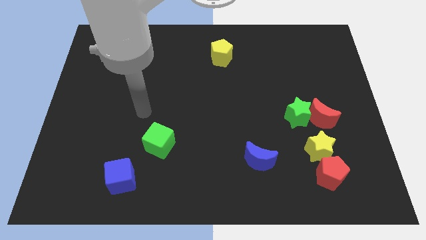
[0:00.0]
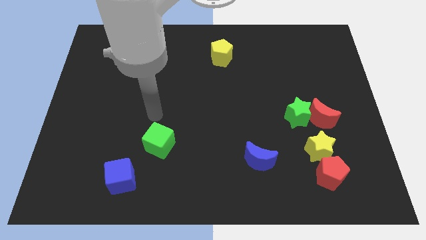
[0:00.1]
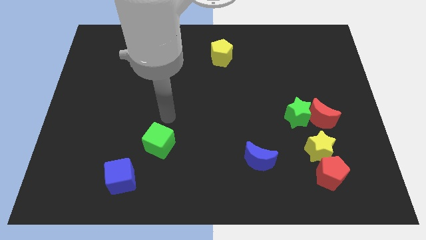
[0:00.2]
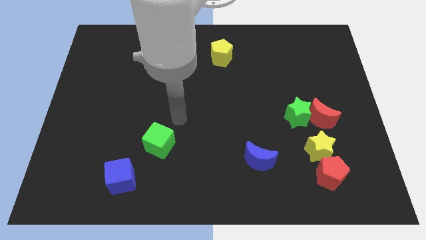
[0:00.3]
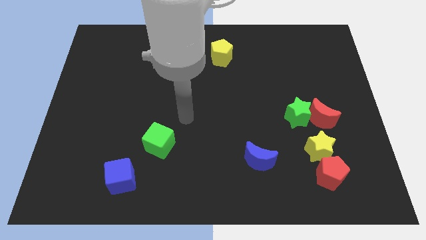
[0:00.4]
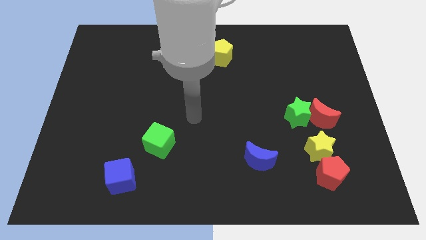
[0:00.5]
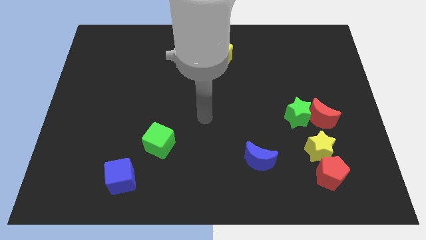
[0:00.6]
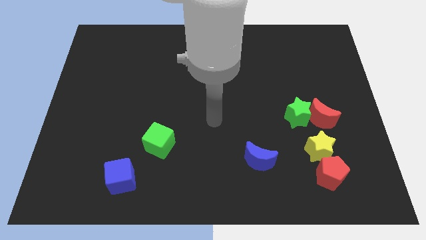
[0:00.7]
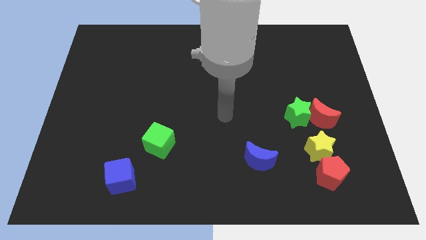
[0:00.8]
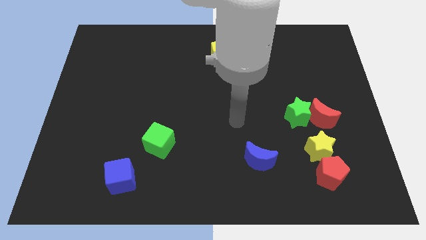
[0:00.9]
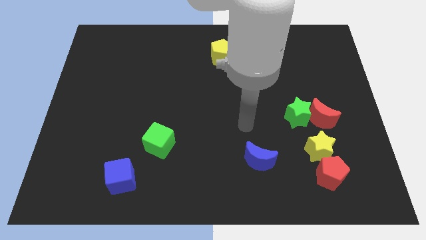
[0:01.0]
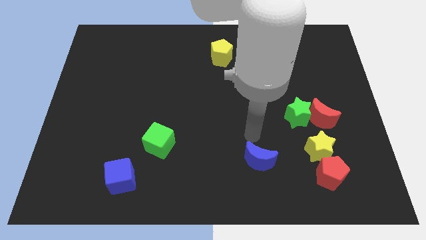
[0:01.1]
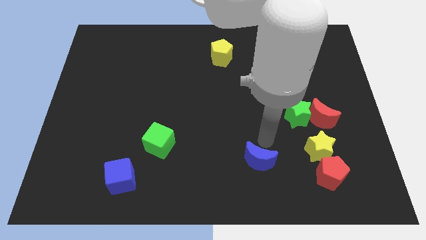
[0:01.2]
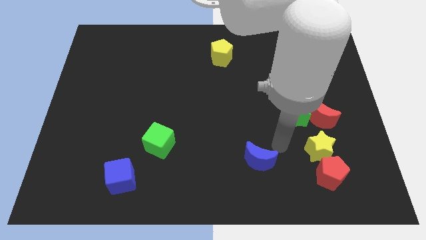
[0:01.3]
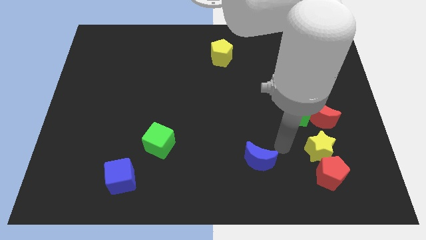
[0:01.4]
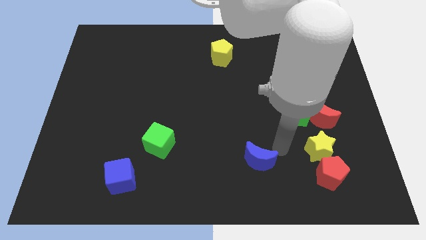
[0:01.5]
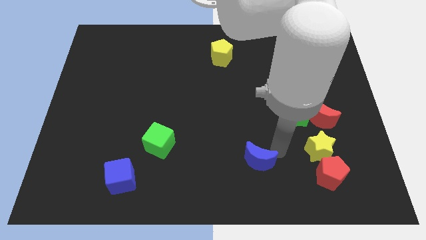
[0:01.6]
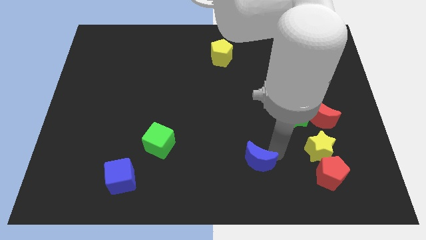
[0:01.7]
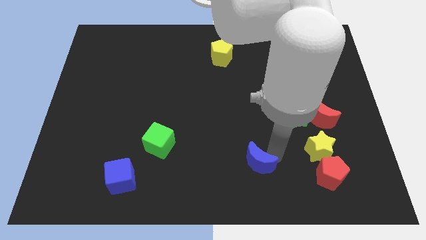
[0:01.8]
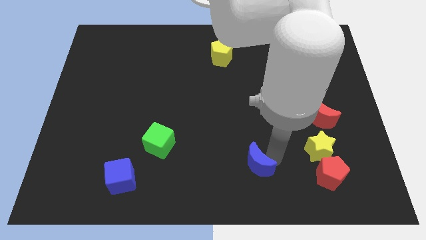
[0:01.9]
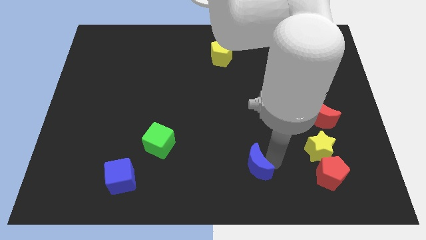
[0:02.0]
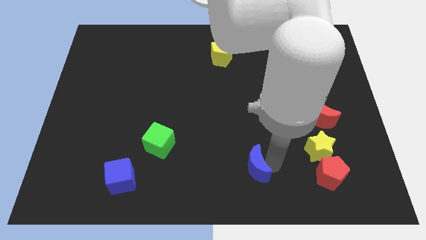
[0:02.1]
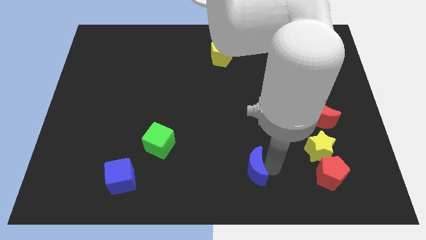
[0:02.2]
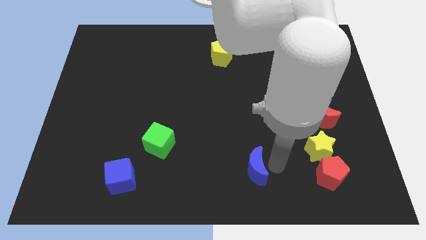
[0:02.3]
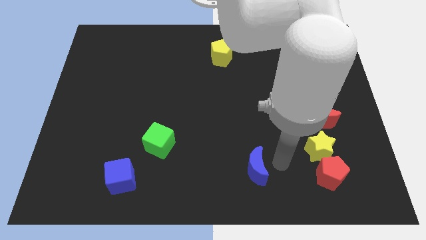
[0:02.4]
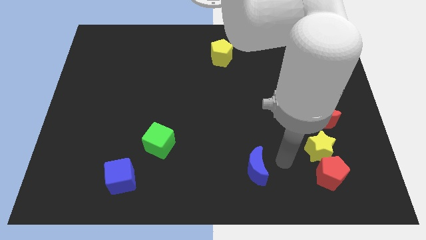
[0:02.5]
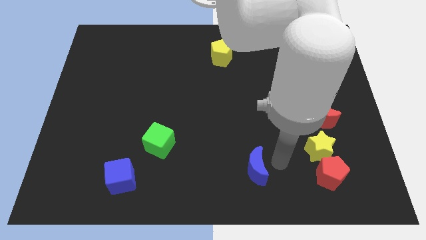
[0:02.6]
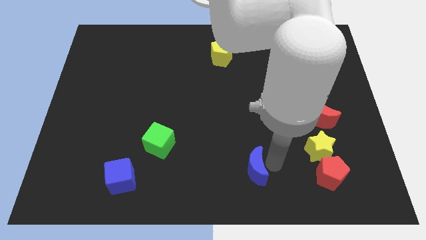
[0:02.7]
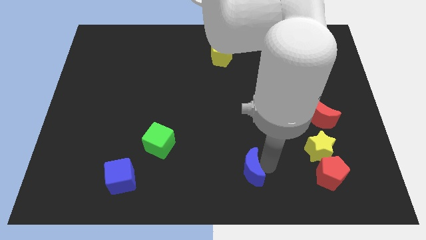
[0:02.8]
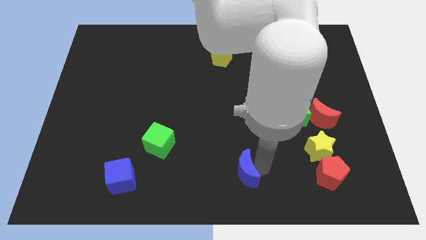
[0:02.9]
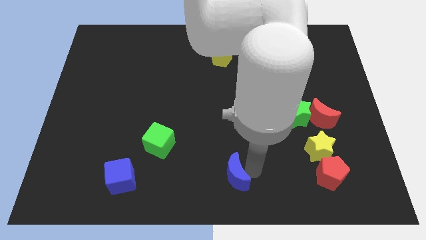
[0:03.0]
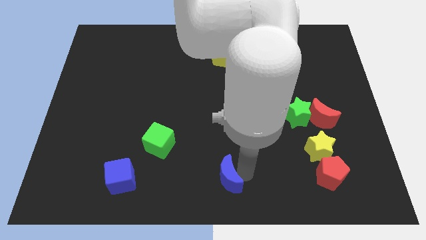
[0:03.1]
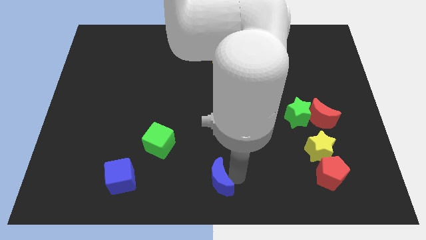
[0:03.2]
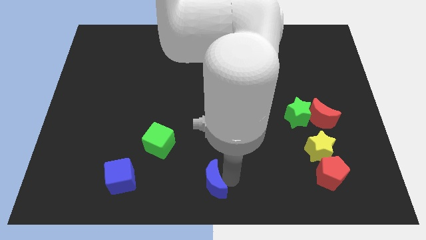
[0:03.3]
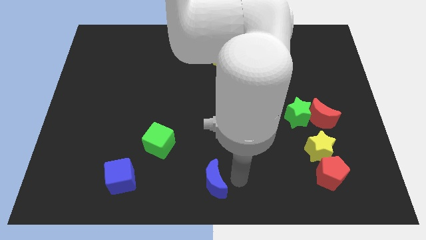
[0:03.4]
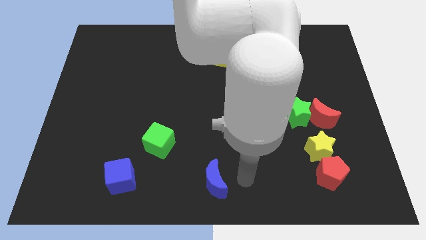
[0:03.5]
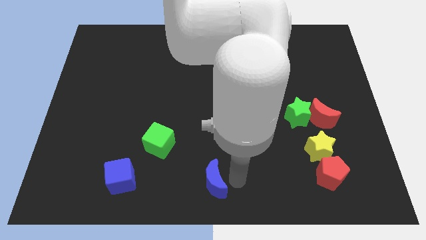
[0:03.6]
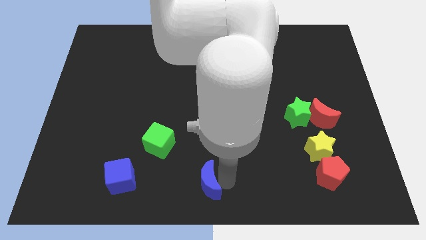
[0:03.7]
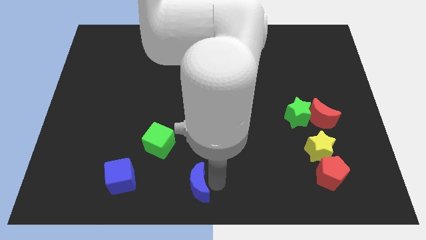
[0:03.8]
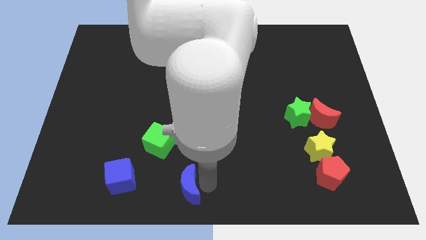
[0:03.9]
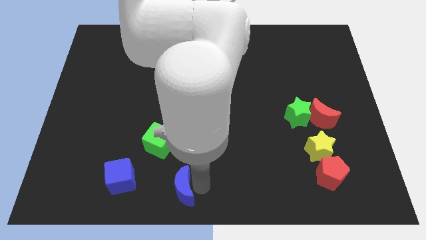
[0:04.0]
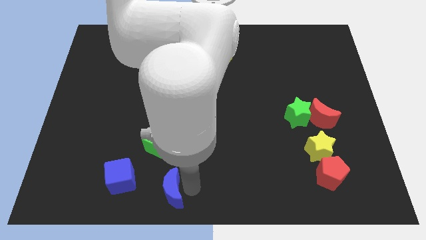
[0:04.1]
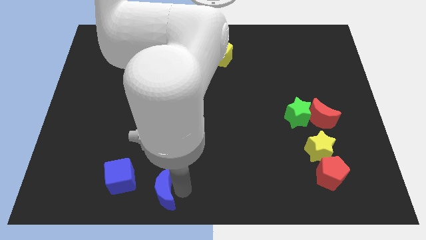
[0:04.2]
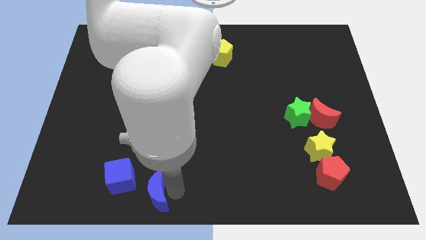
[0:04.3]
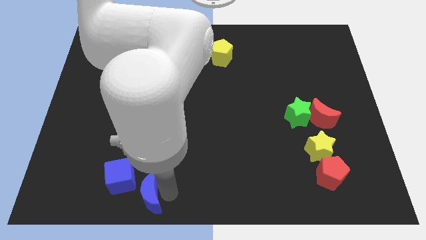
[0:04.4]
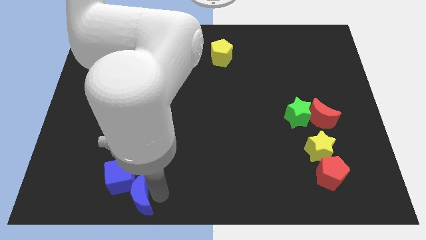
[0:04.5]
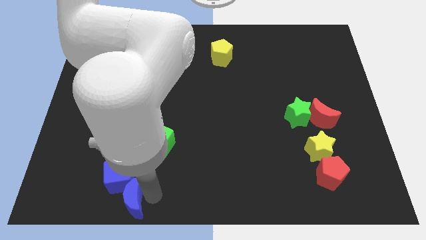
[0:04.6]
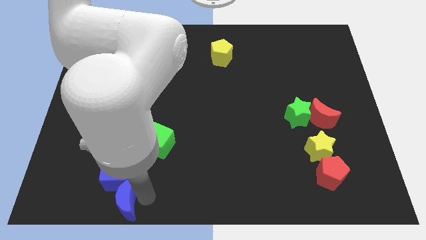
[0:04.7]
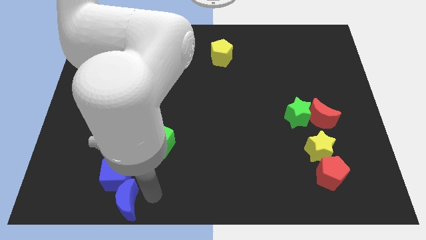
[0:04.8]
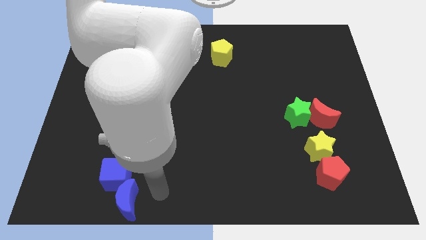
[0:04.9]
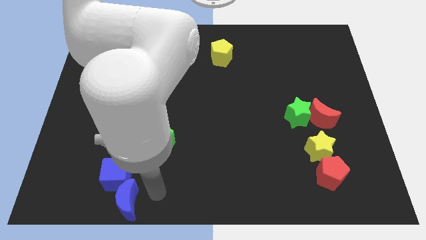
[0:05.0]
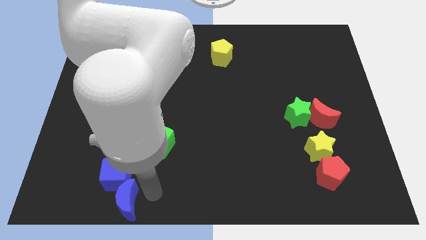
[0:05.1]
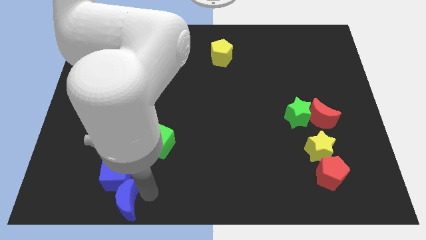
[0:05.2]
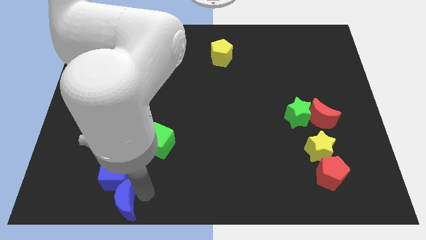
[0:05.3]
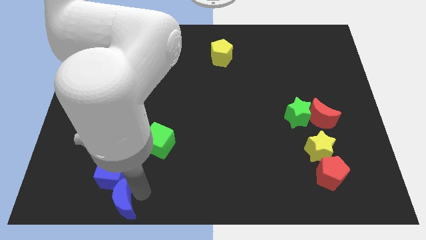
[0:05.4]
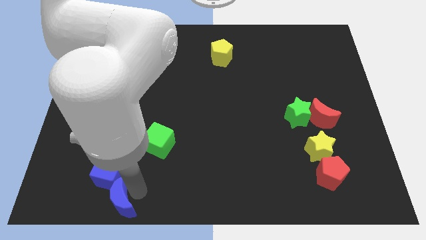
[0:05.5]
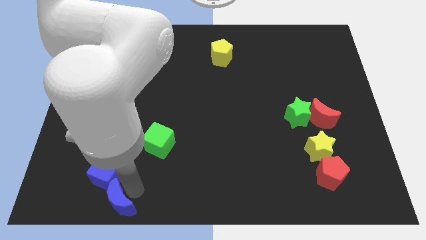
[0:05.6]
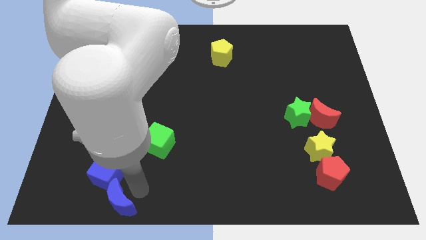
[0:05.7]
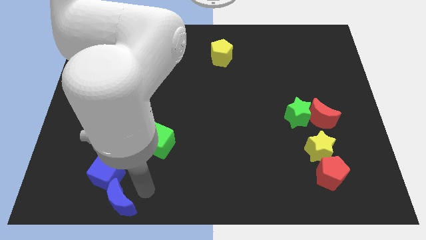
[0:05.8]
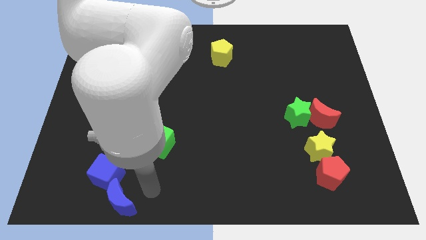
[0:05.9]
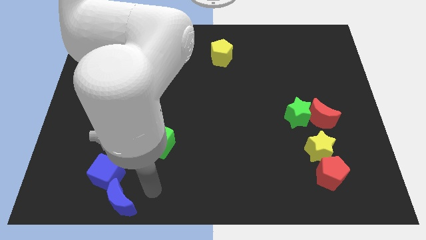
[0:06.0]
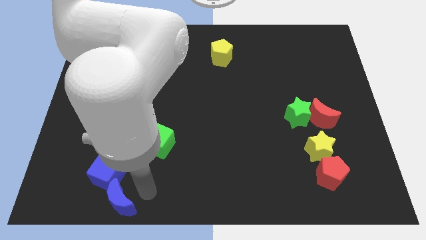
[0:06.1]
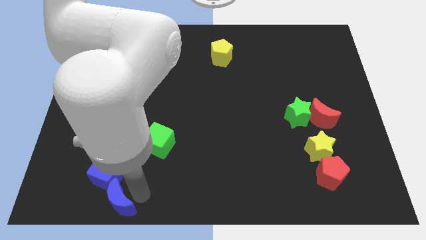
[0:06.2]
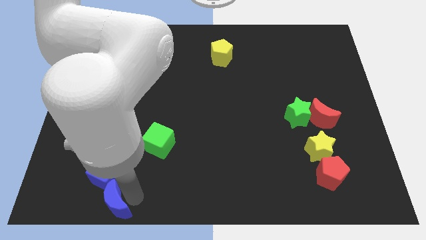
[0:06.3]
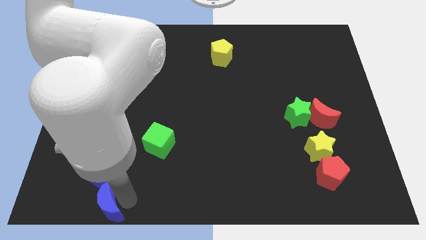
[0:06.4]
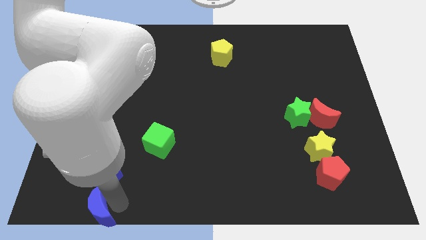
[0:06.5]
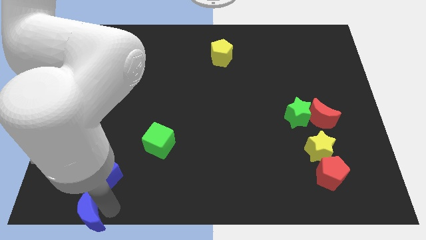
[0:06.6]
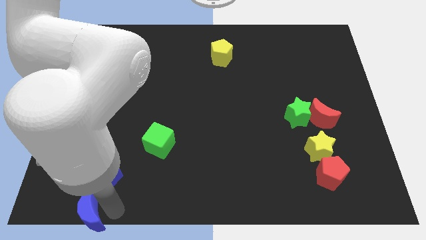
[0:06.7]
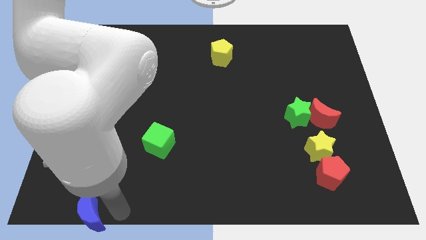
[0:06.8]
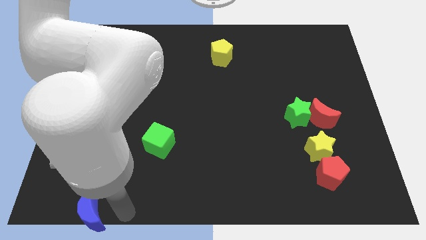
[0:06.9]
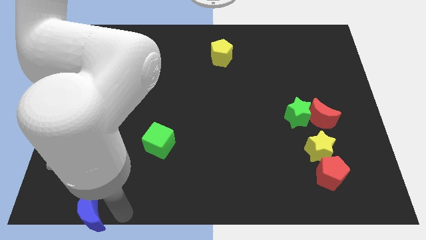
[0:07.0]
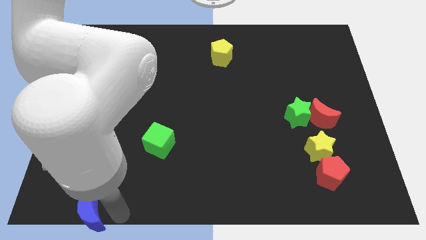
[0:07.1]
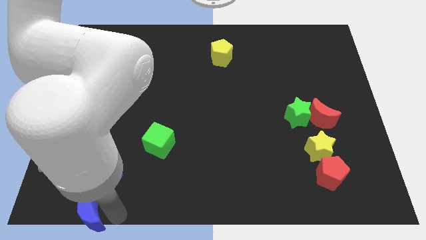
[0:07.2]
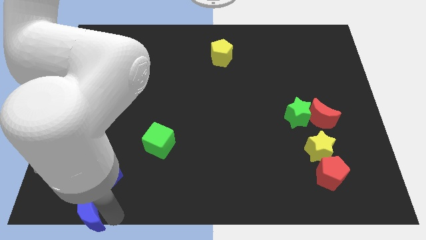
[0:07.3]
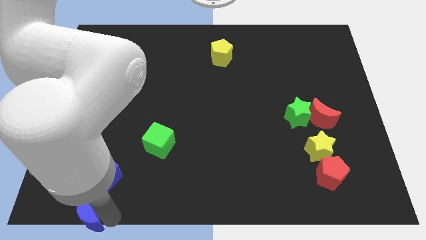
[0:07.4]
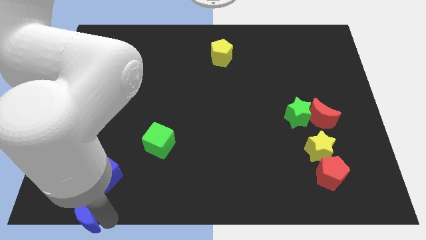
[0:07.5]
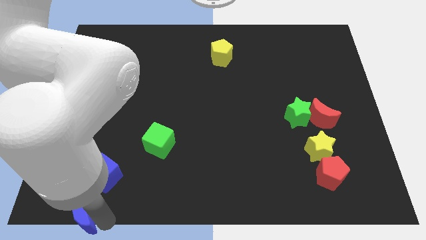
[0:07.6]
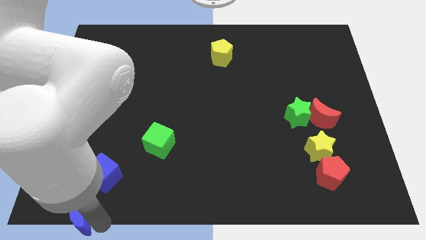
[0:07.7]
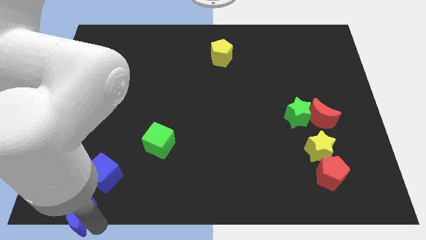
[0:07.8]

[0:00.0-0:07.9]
move the blue moon to the bottom left of the board
